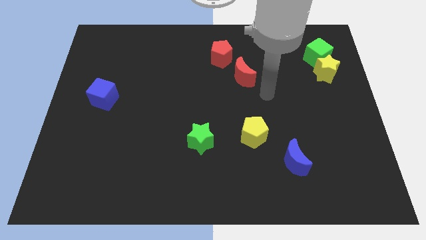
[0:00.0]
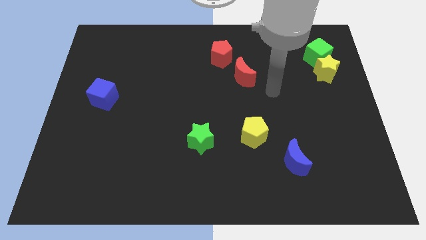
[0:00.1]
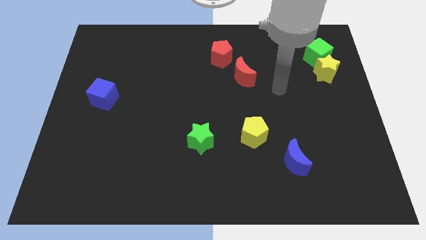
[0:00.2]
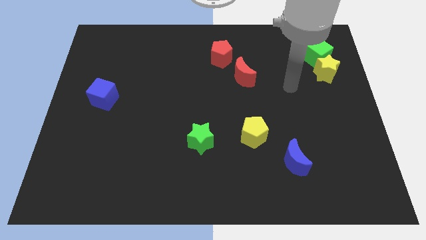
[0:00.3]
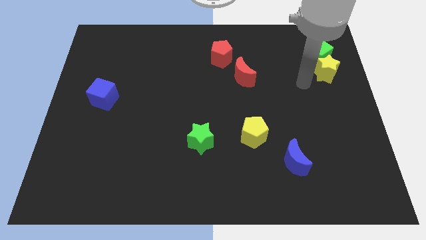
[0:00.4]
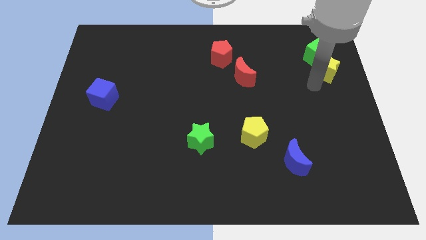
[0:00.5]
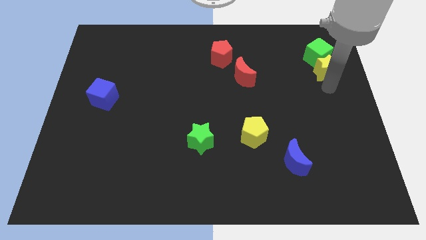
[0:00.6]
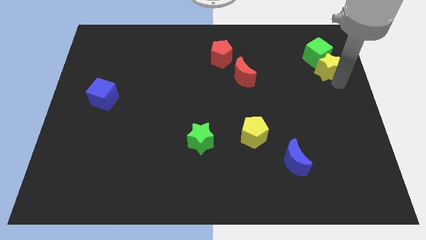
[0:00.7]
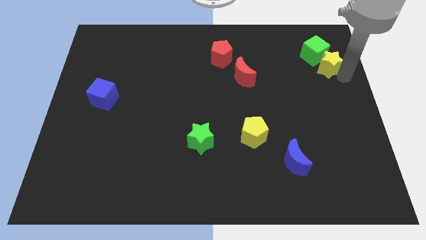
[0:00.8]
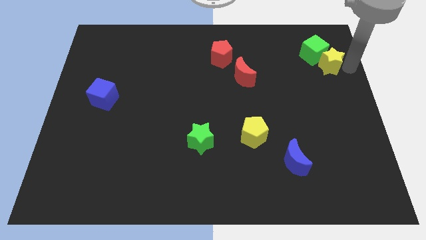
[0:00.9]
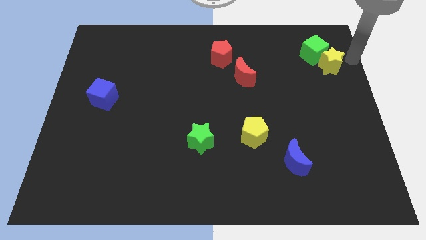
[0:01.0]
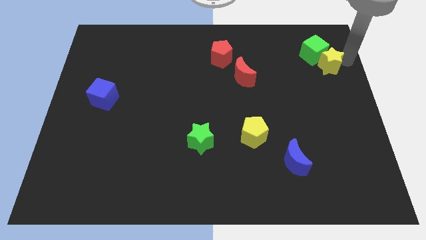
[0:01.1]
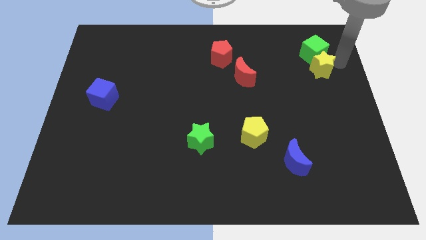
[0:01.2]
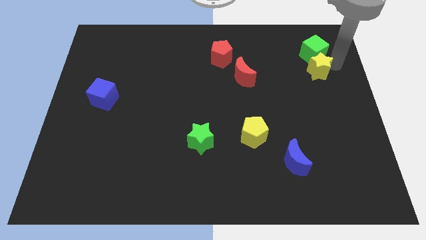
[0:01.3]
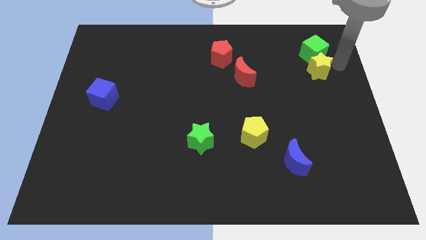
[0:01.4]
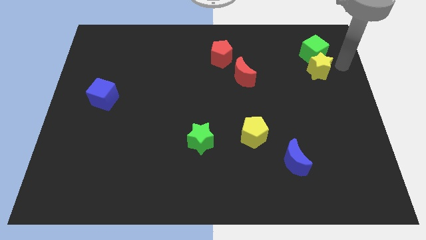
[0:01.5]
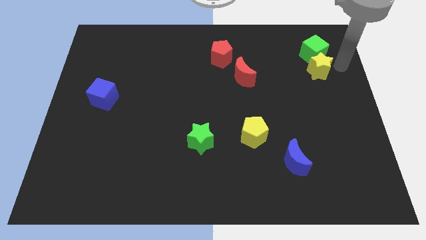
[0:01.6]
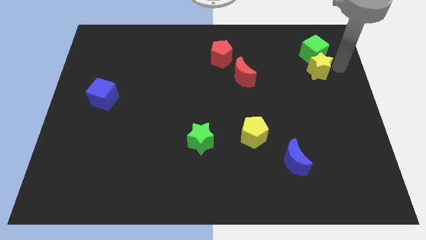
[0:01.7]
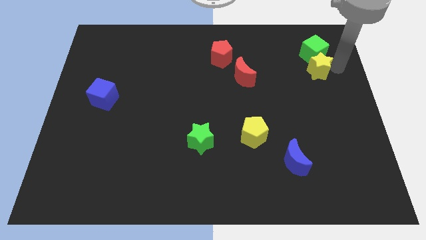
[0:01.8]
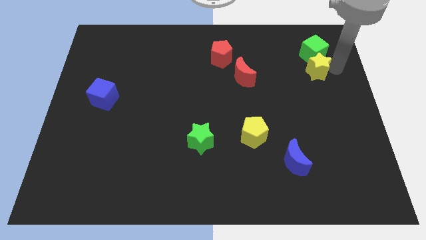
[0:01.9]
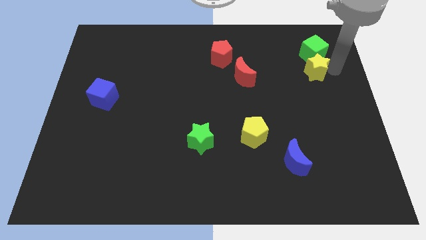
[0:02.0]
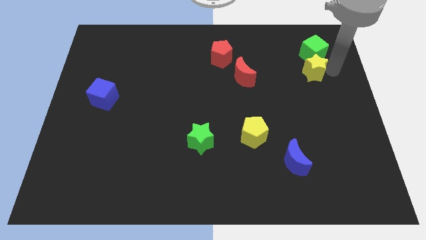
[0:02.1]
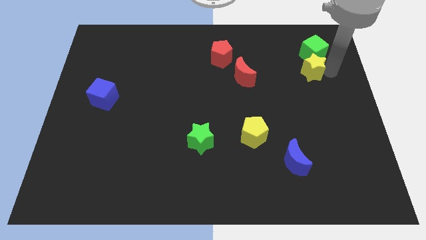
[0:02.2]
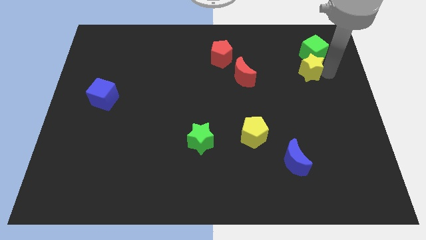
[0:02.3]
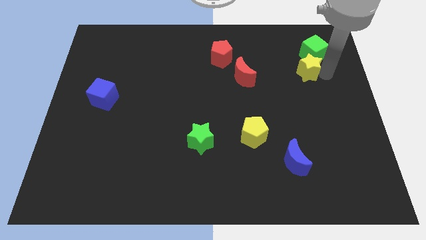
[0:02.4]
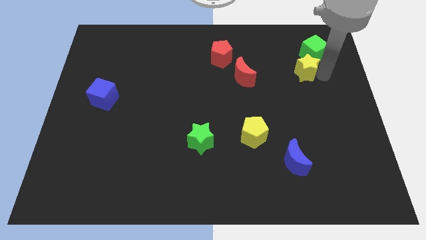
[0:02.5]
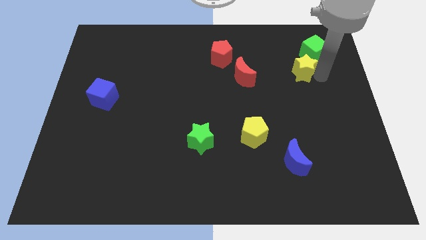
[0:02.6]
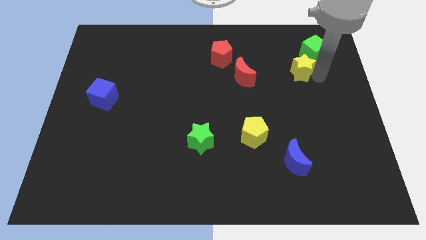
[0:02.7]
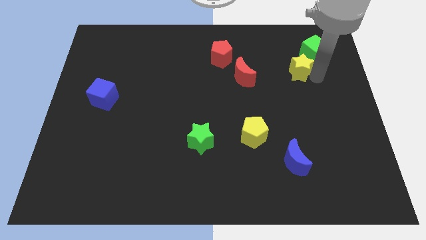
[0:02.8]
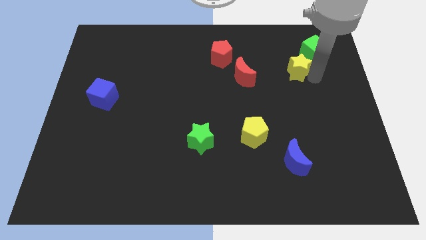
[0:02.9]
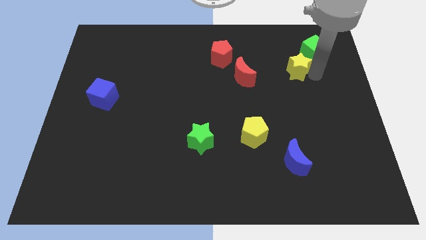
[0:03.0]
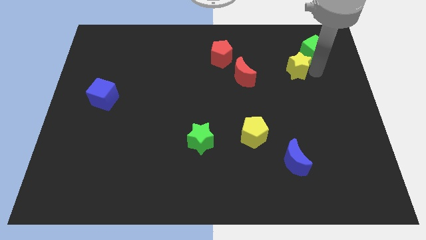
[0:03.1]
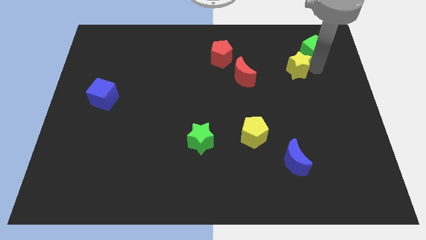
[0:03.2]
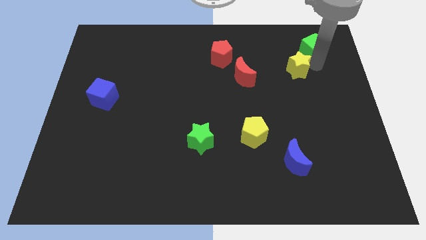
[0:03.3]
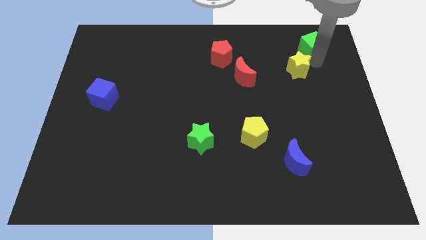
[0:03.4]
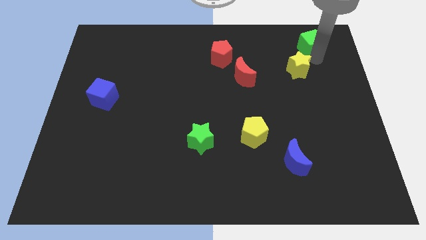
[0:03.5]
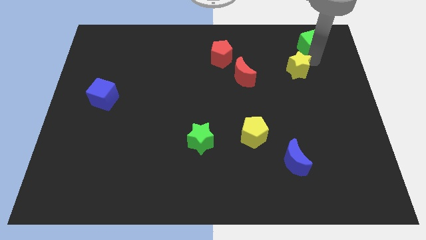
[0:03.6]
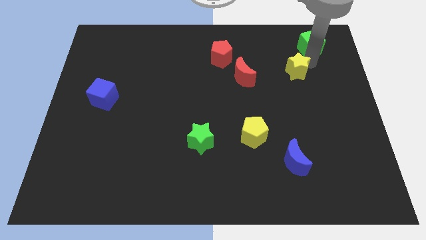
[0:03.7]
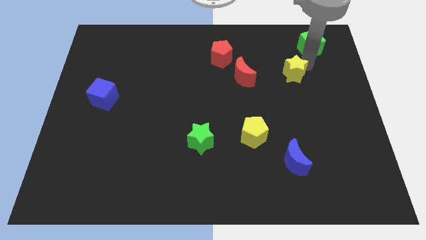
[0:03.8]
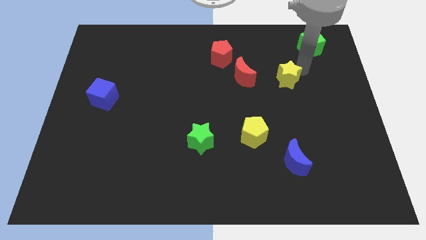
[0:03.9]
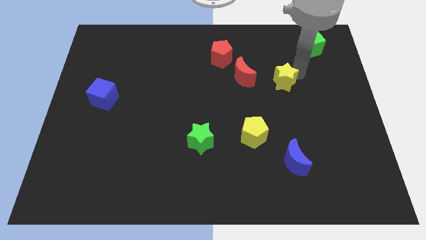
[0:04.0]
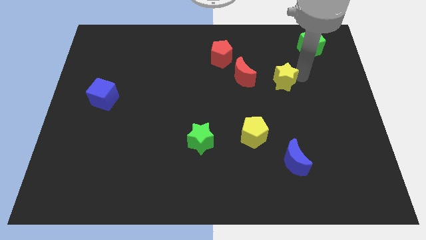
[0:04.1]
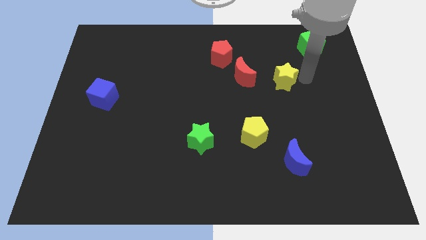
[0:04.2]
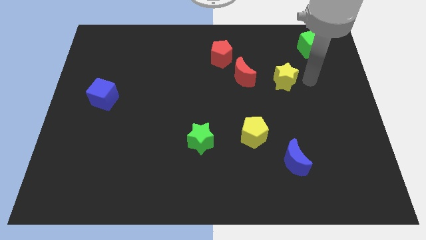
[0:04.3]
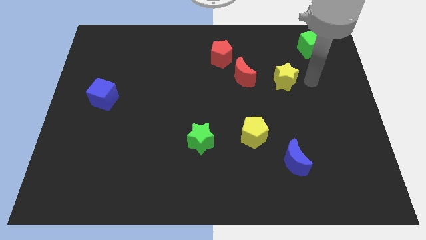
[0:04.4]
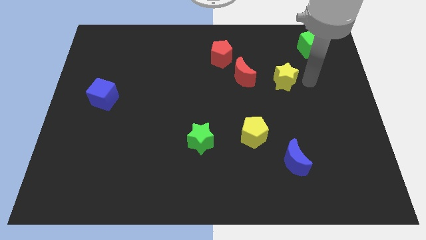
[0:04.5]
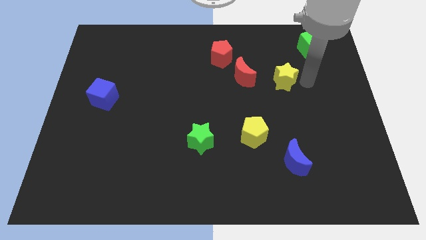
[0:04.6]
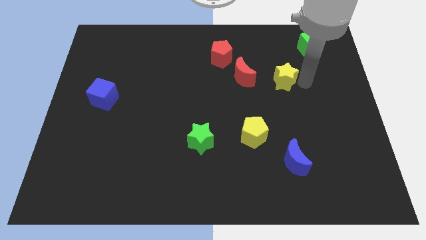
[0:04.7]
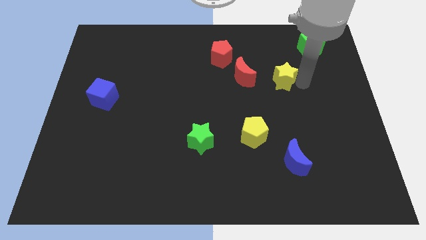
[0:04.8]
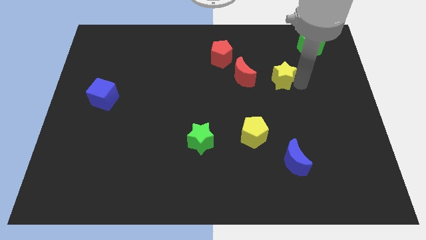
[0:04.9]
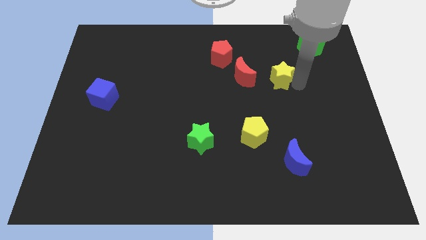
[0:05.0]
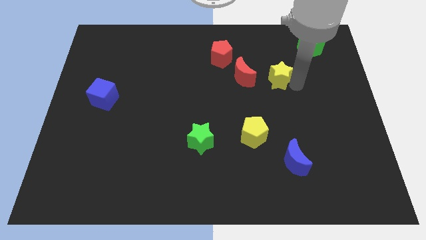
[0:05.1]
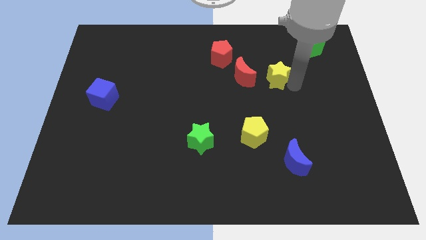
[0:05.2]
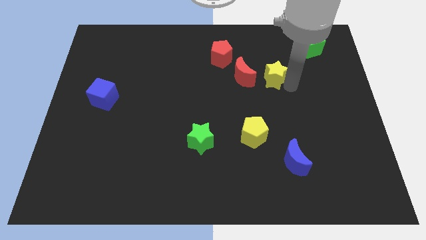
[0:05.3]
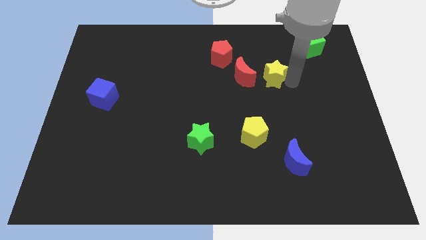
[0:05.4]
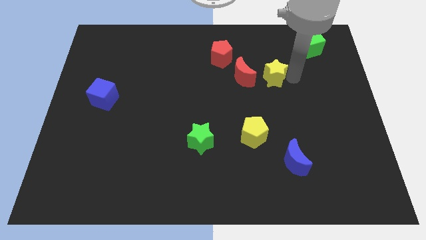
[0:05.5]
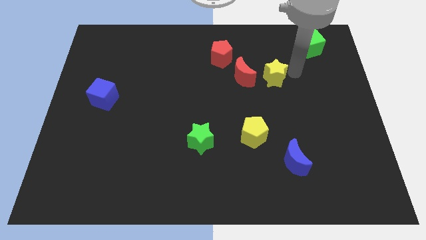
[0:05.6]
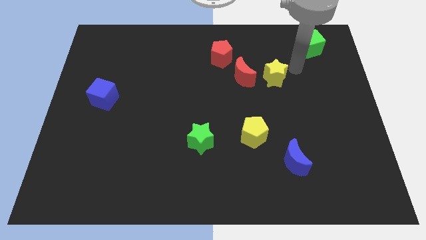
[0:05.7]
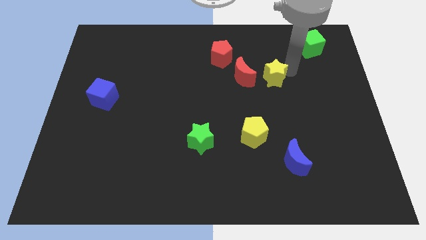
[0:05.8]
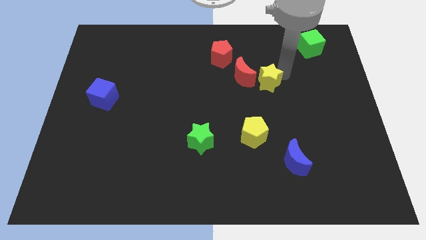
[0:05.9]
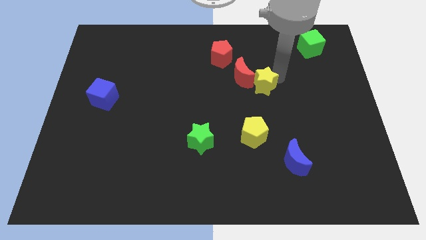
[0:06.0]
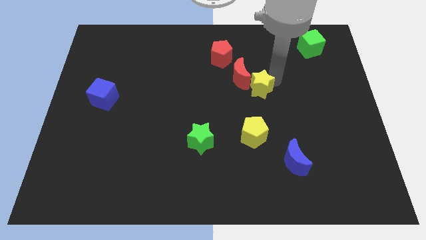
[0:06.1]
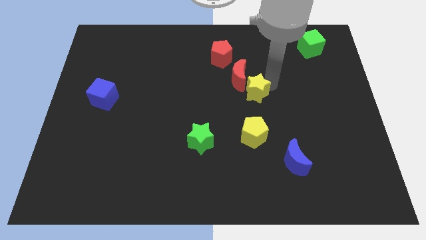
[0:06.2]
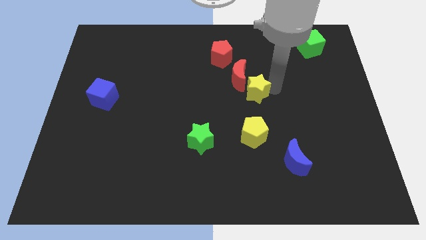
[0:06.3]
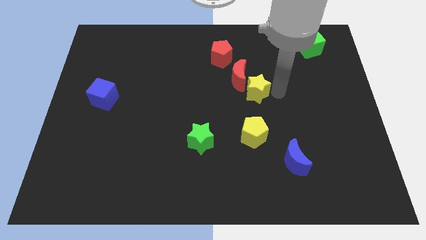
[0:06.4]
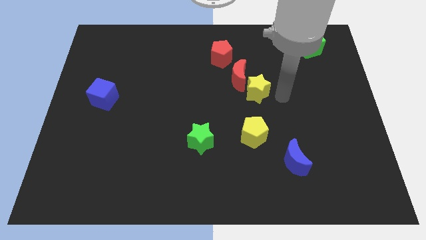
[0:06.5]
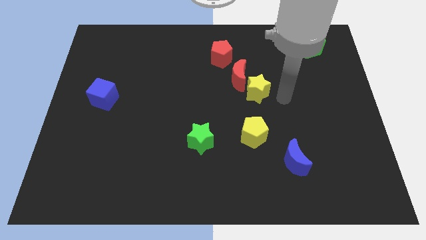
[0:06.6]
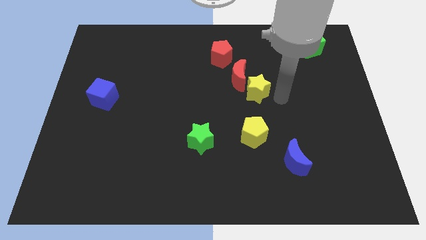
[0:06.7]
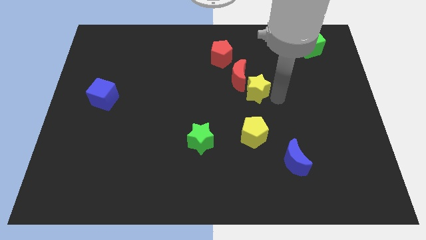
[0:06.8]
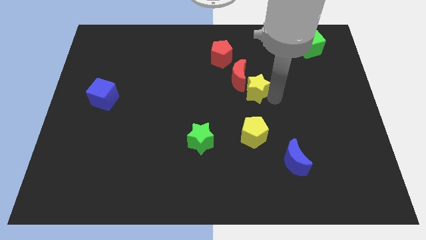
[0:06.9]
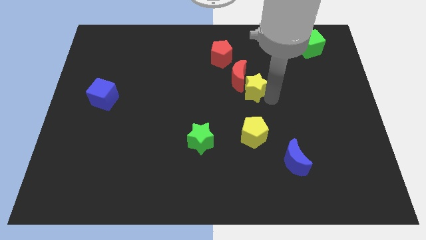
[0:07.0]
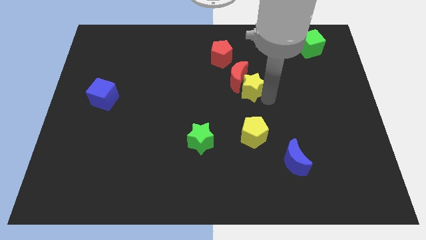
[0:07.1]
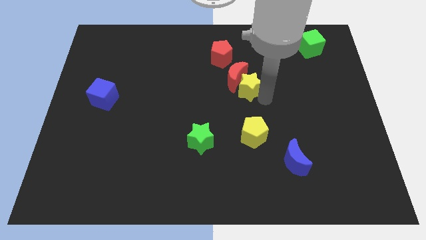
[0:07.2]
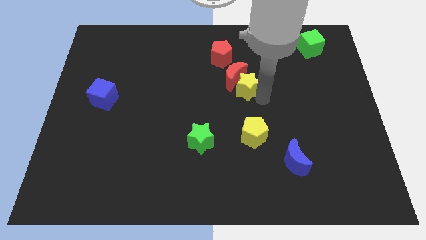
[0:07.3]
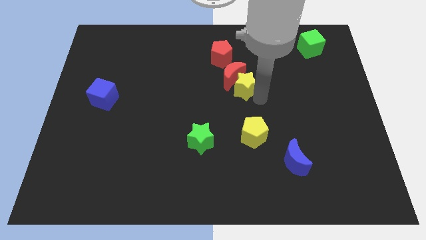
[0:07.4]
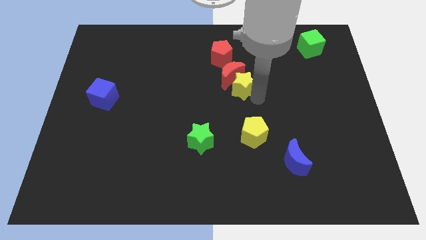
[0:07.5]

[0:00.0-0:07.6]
push the yellow star left
